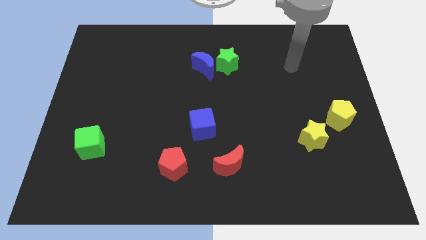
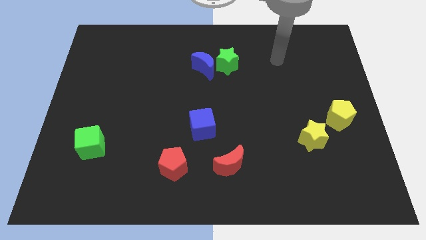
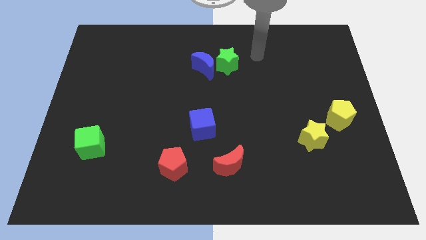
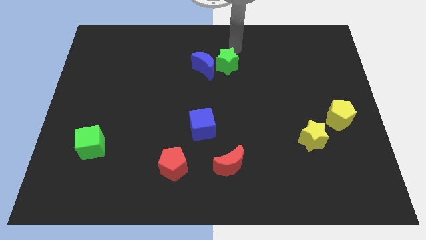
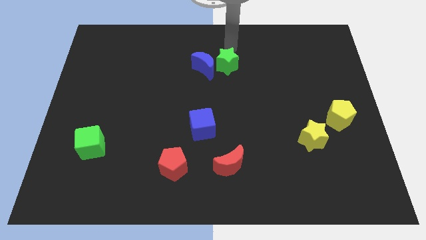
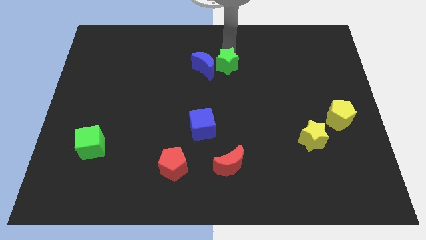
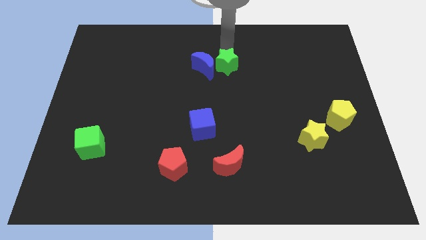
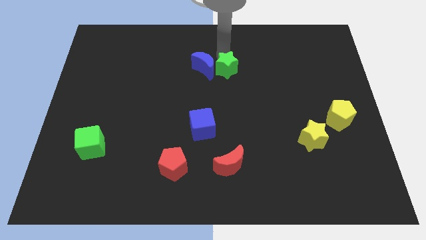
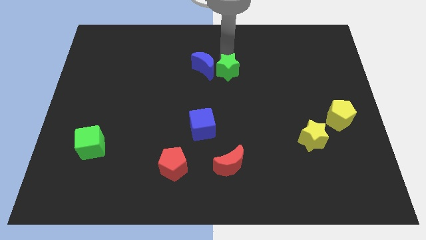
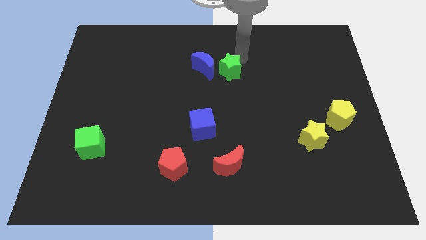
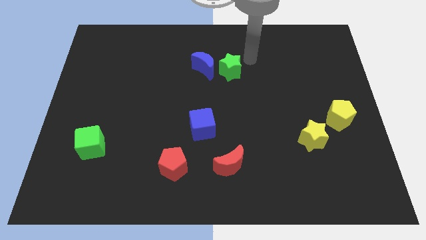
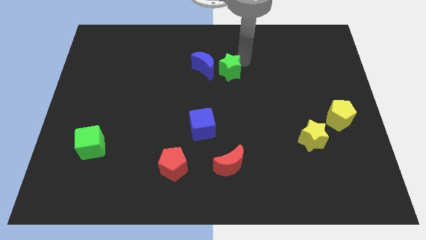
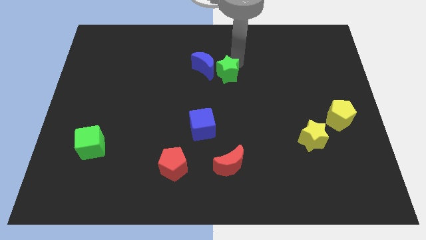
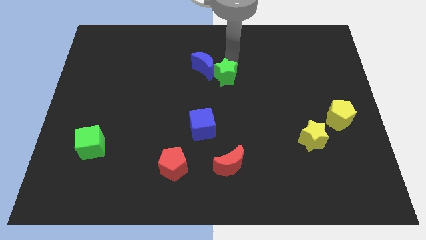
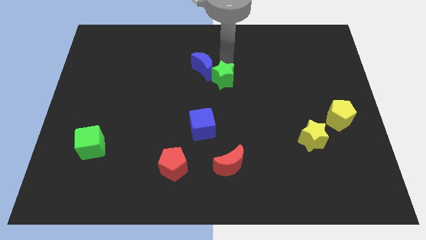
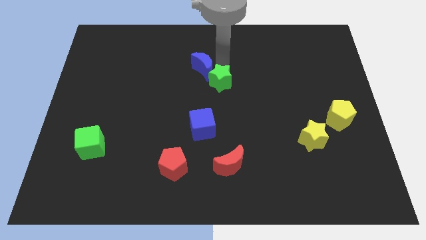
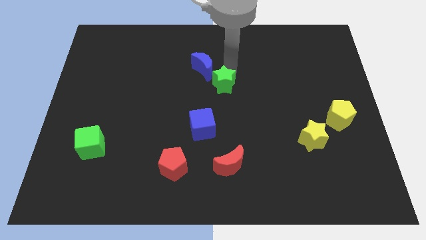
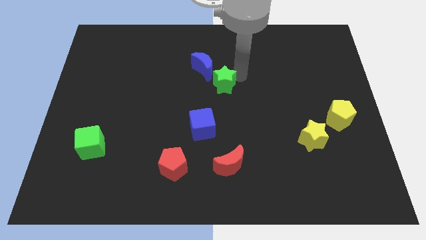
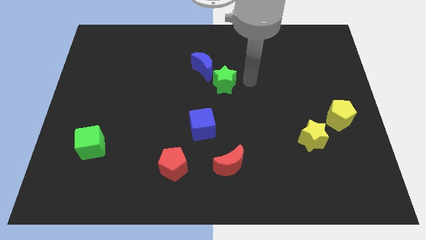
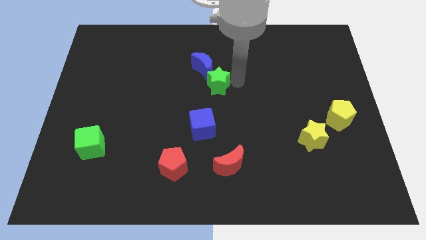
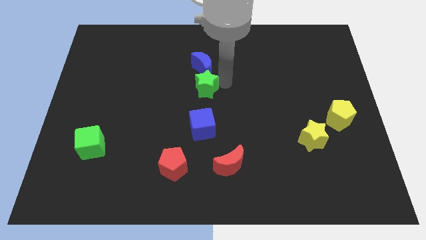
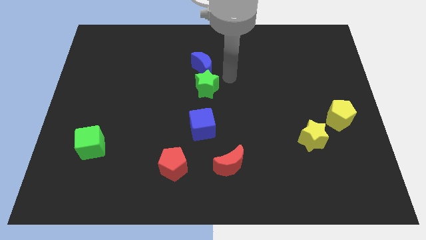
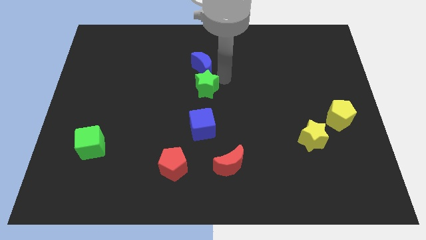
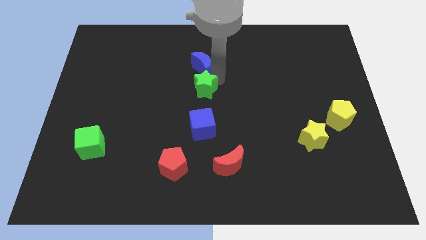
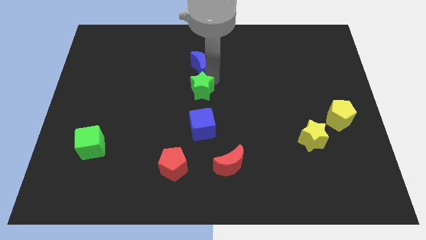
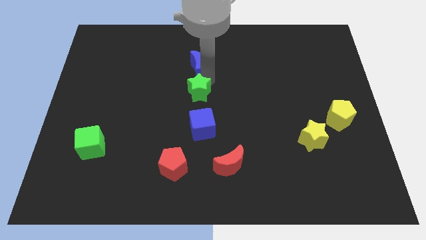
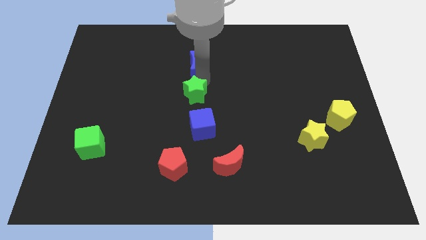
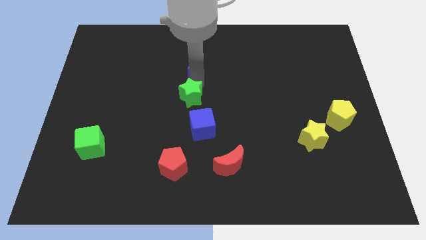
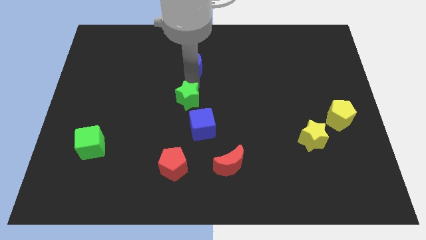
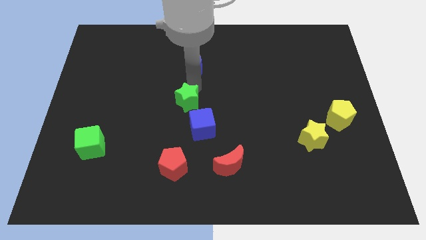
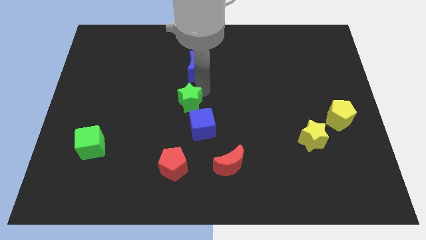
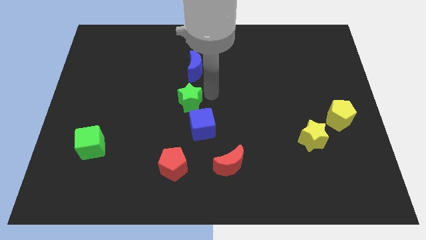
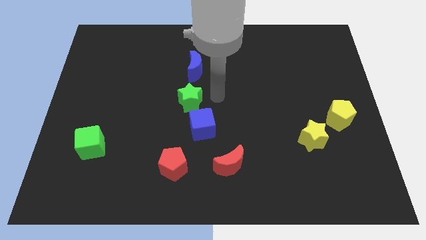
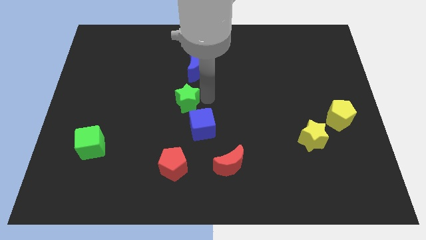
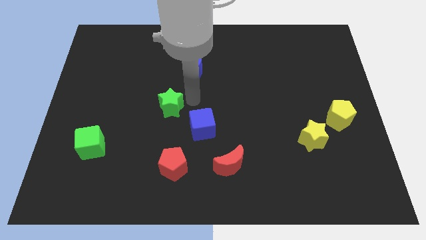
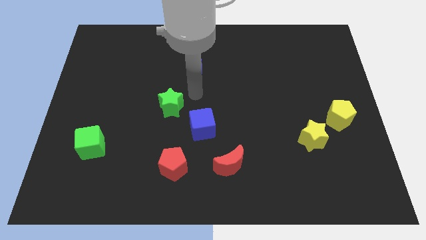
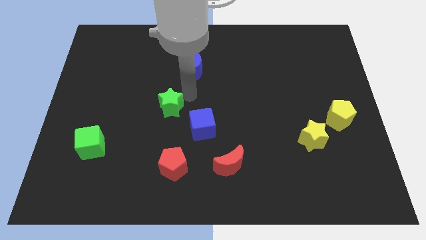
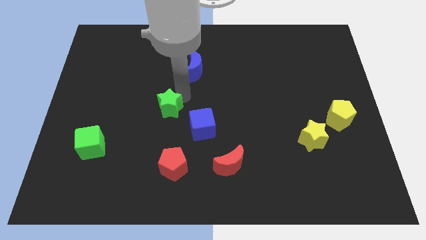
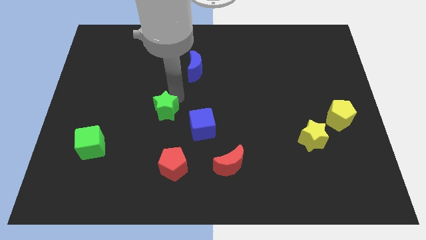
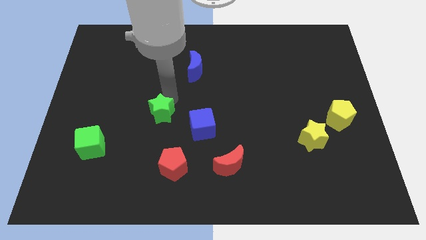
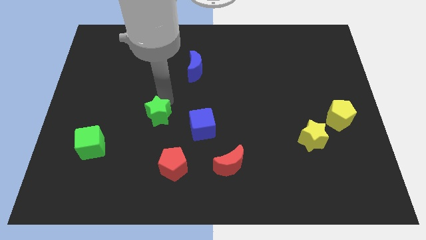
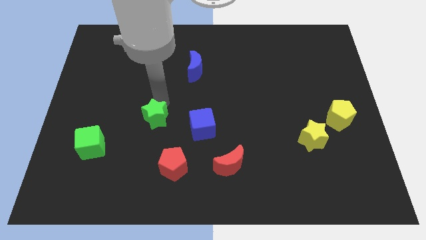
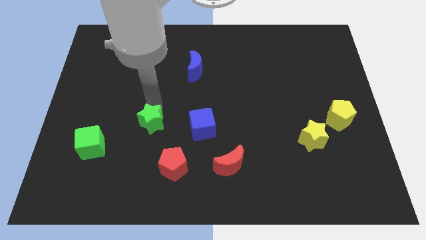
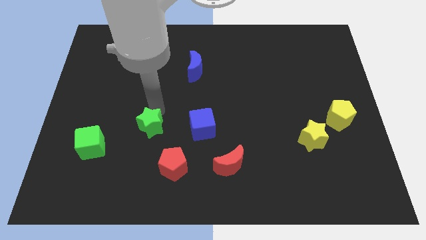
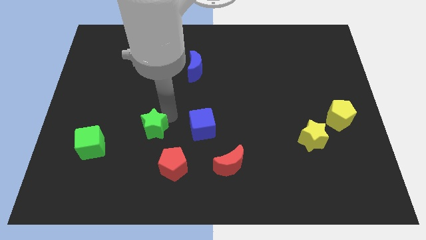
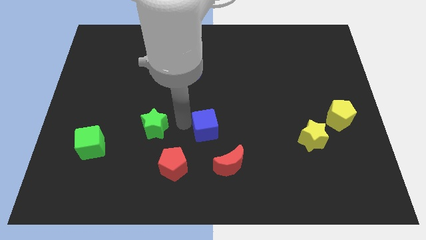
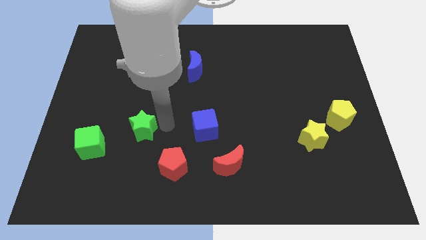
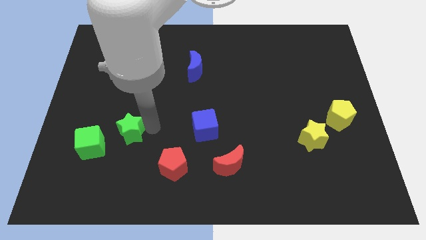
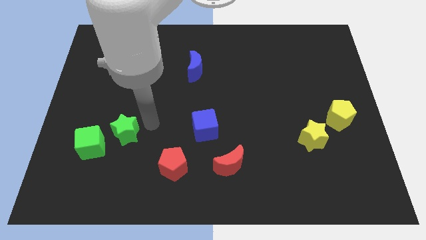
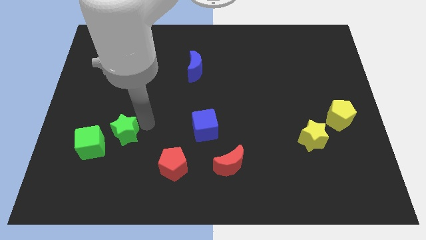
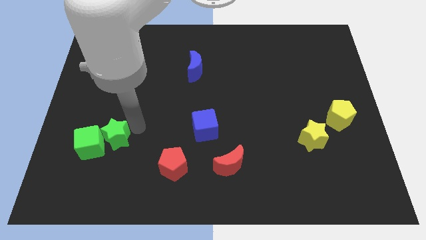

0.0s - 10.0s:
push the green star towards the green cube

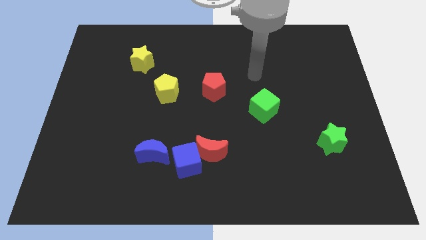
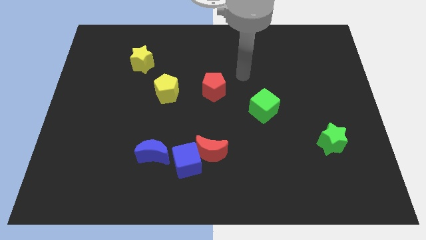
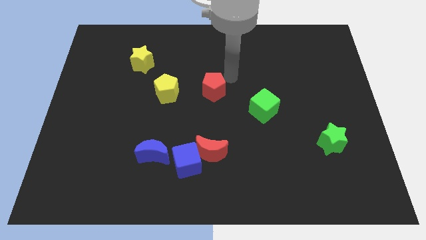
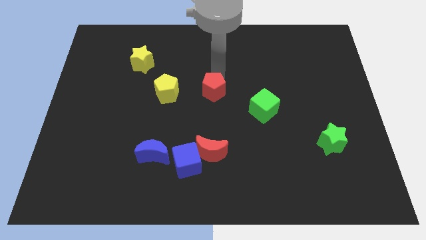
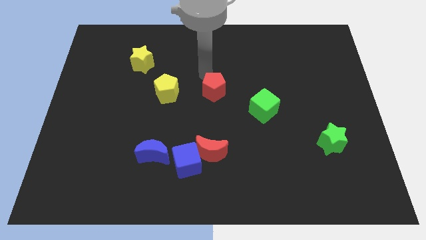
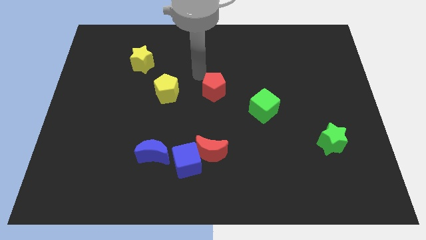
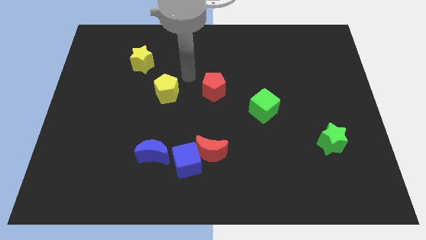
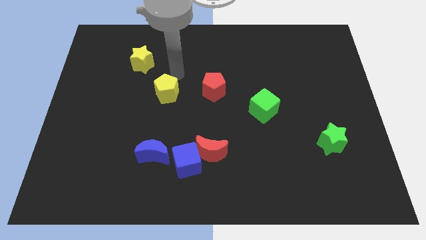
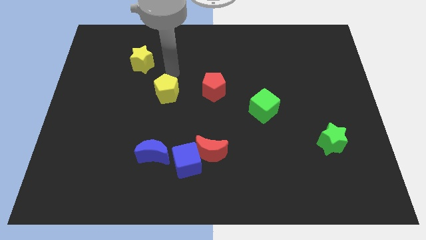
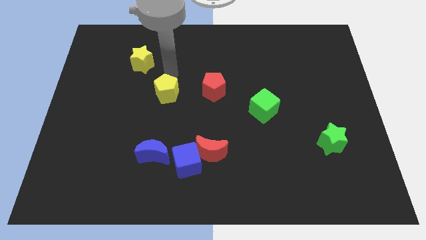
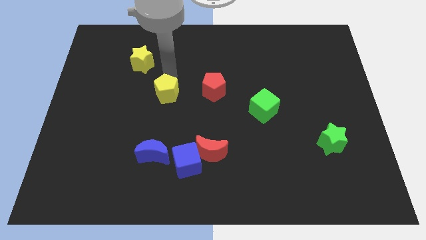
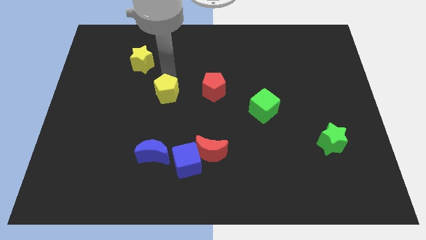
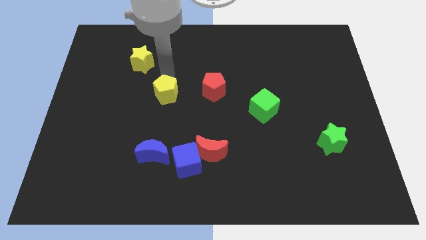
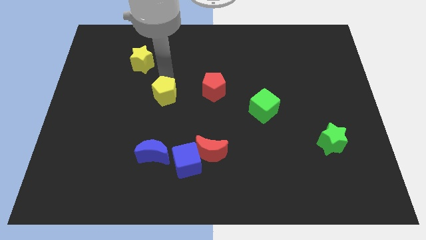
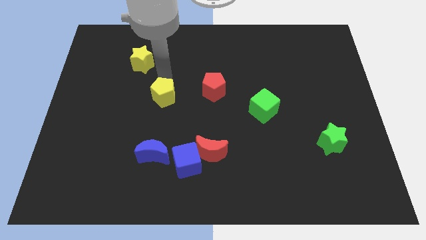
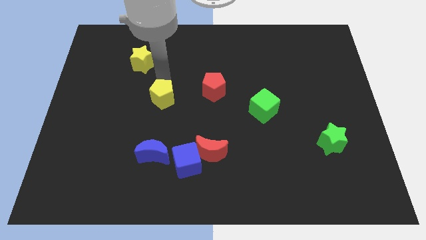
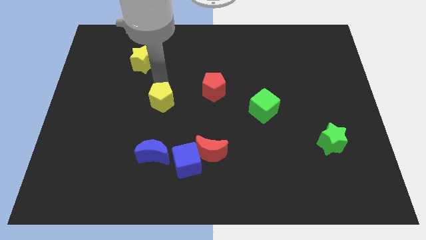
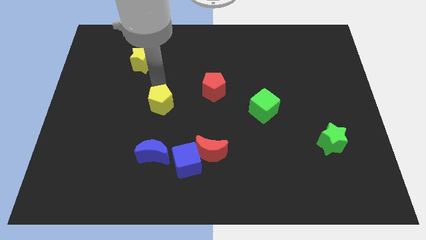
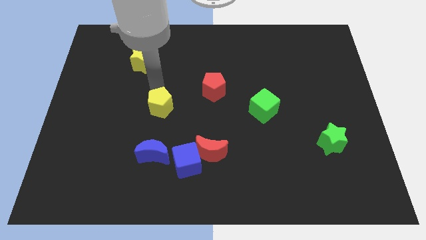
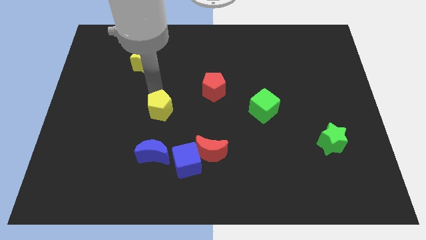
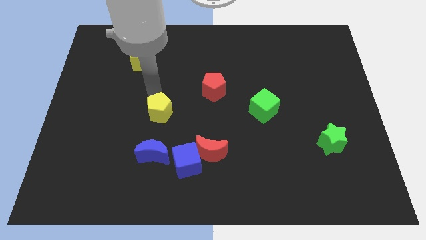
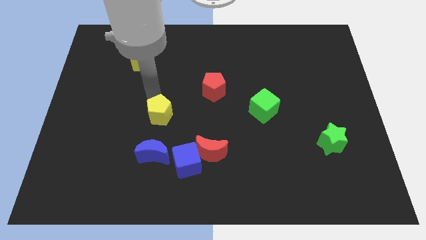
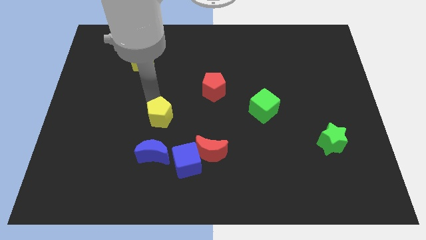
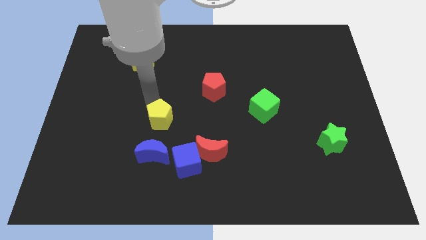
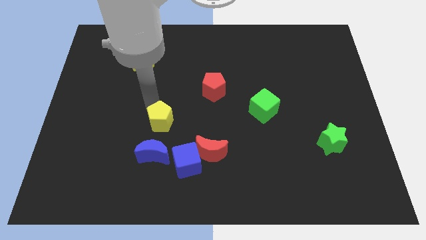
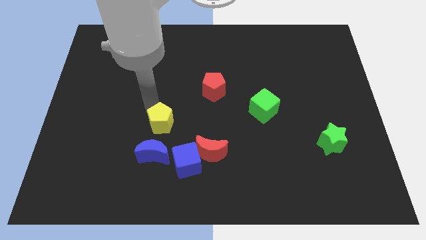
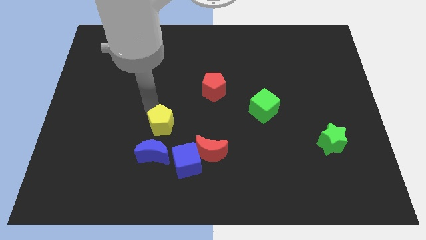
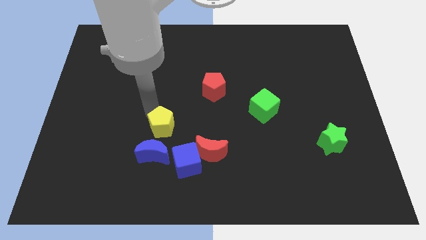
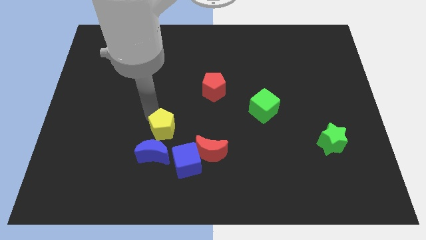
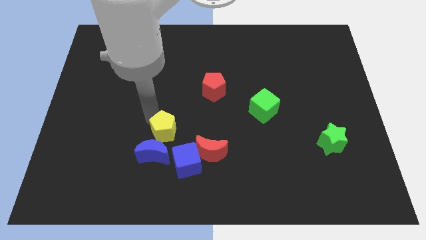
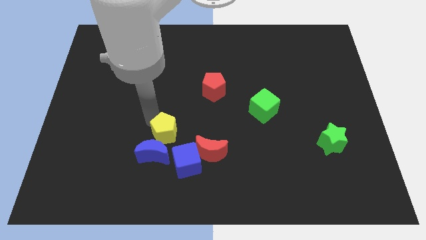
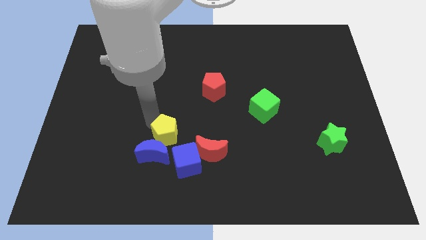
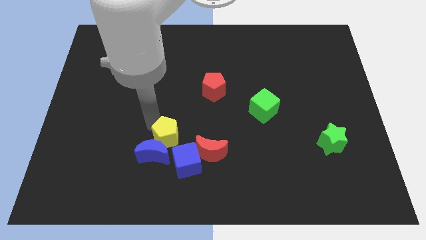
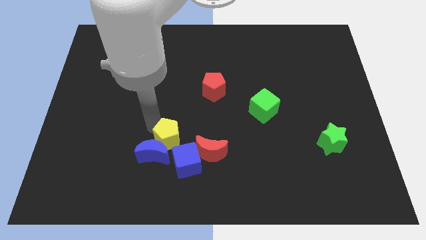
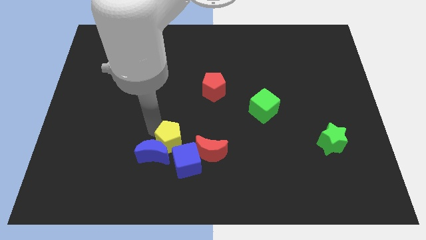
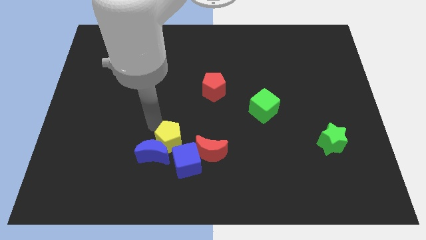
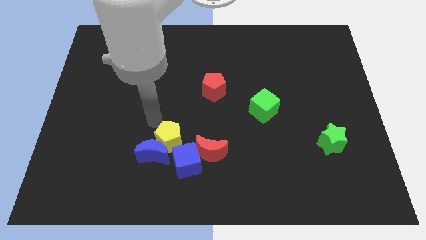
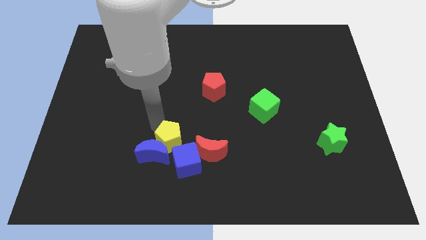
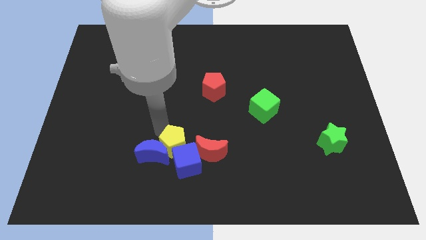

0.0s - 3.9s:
move the yellow pentagon to the blue cube
